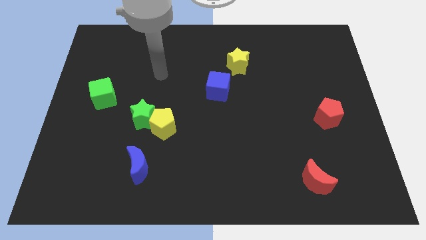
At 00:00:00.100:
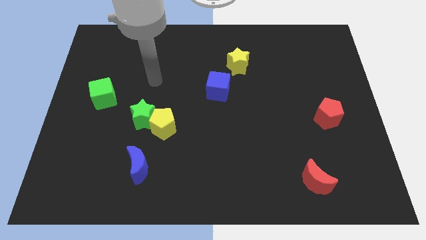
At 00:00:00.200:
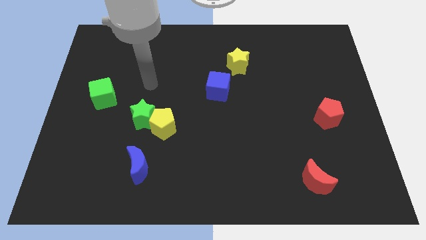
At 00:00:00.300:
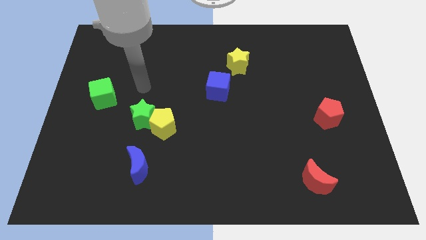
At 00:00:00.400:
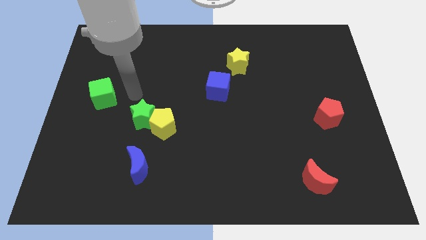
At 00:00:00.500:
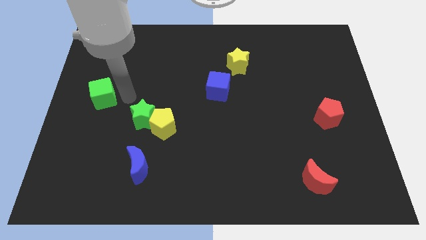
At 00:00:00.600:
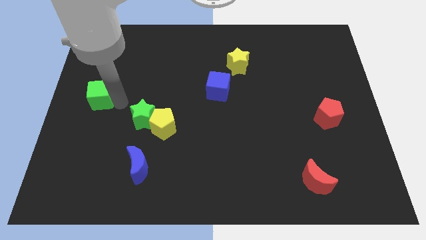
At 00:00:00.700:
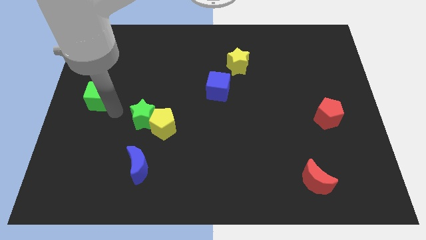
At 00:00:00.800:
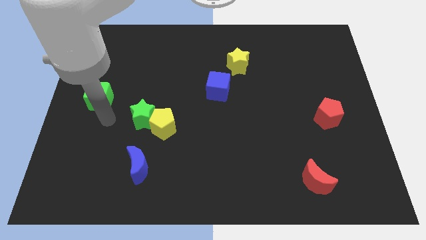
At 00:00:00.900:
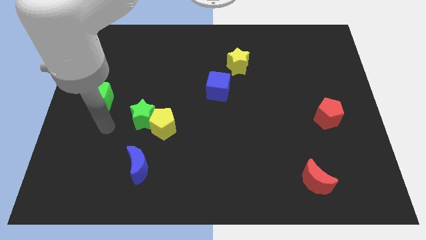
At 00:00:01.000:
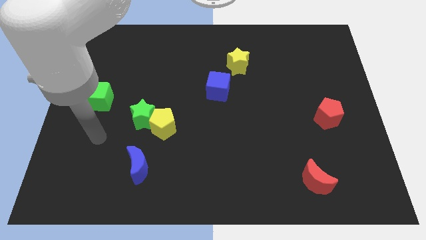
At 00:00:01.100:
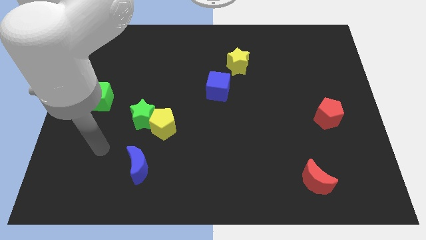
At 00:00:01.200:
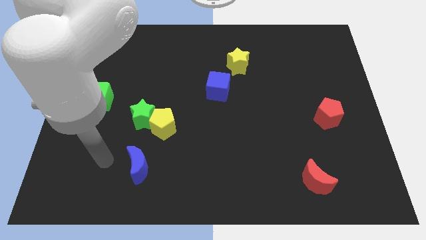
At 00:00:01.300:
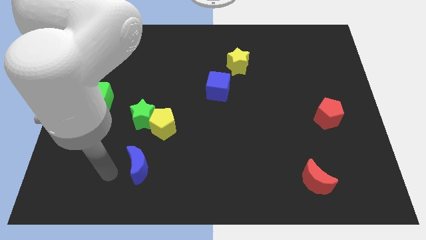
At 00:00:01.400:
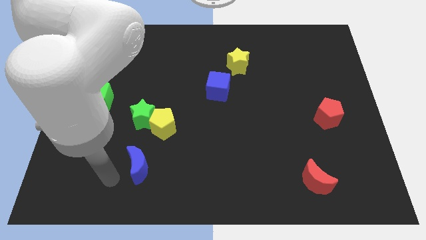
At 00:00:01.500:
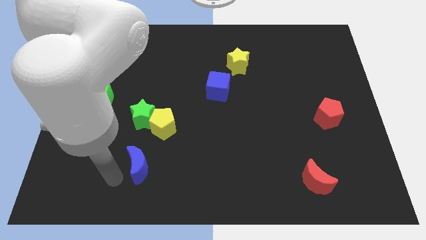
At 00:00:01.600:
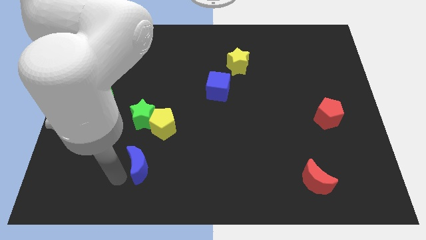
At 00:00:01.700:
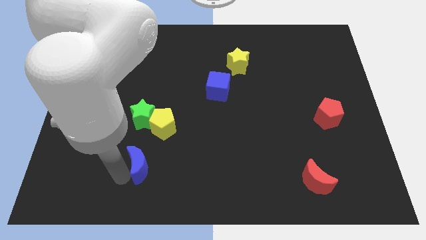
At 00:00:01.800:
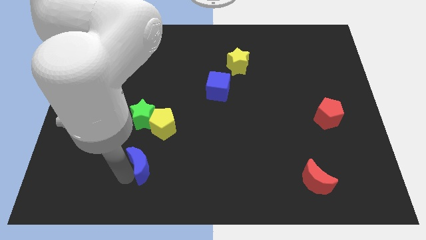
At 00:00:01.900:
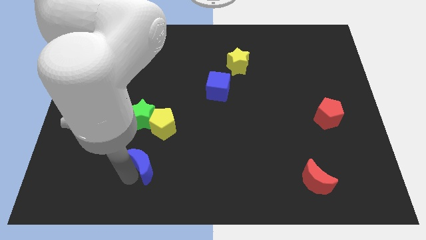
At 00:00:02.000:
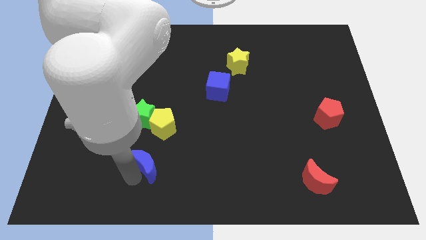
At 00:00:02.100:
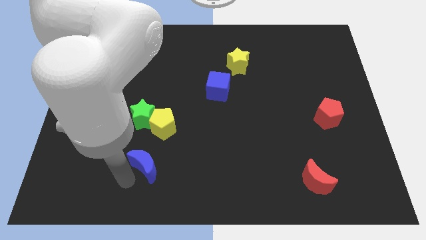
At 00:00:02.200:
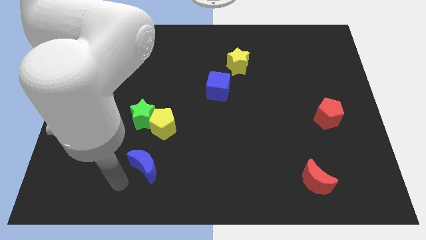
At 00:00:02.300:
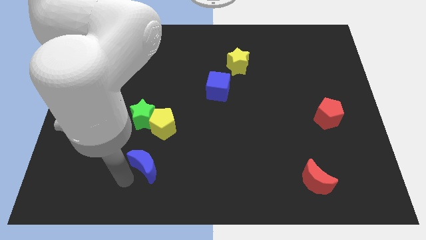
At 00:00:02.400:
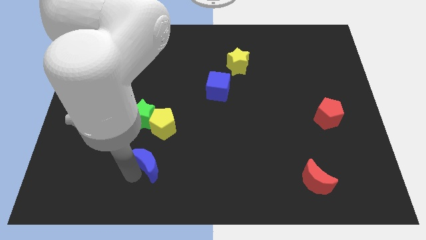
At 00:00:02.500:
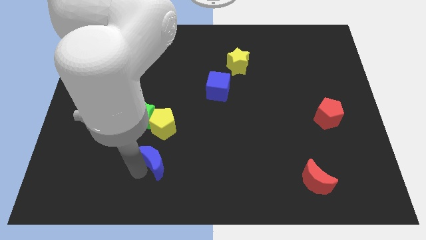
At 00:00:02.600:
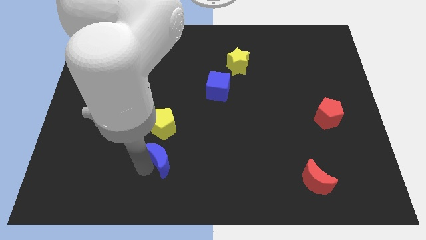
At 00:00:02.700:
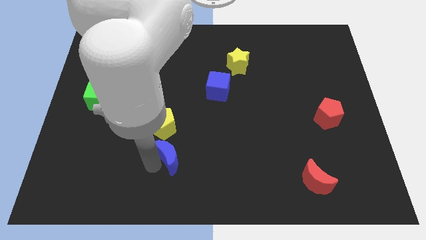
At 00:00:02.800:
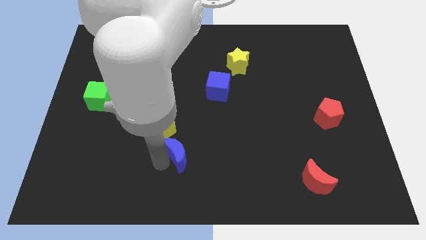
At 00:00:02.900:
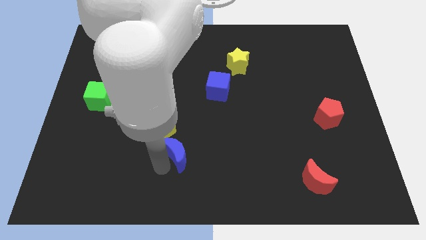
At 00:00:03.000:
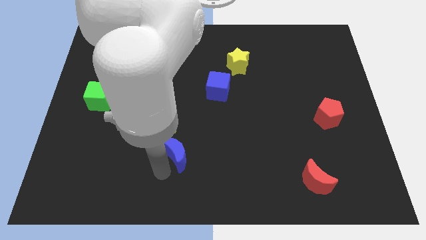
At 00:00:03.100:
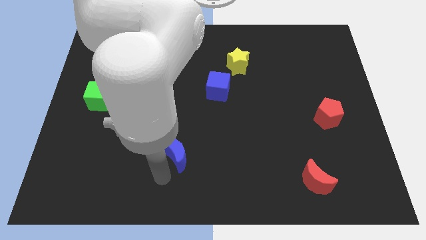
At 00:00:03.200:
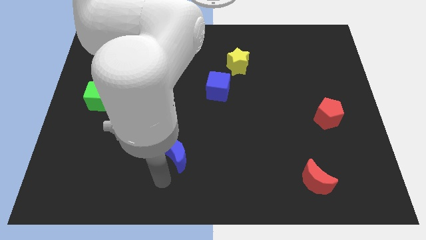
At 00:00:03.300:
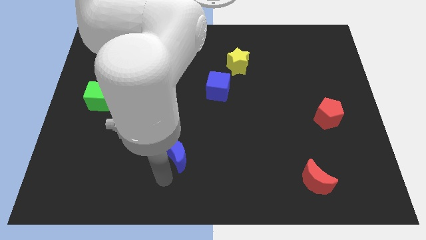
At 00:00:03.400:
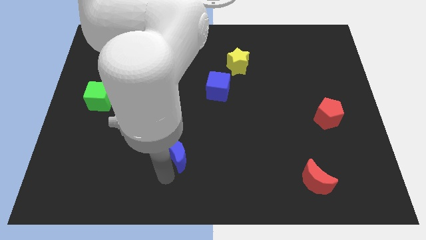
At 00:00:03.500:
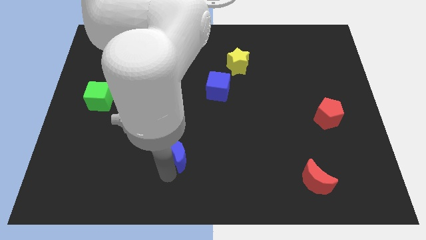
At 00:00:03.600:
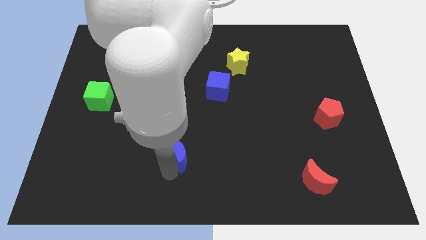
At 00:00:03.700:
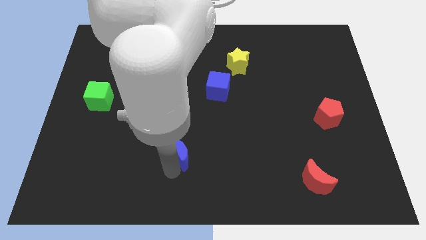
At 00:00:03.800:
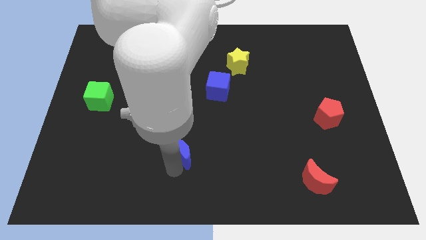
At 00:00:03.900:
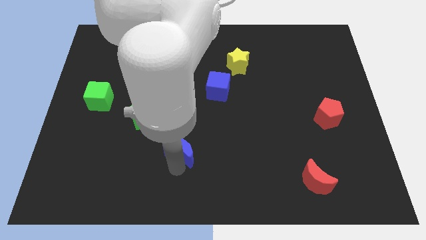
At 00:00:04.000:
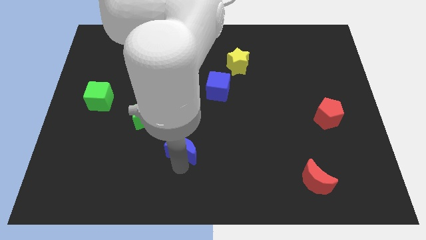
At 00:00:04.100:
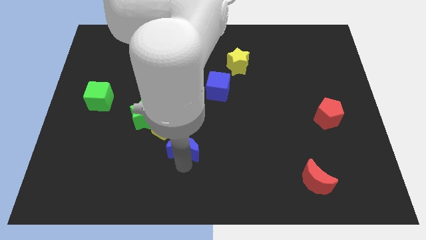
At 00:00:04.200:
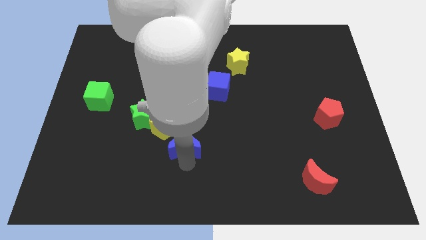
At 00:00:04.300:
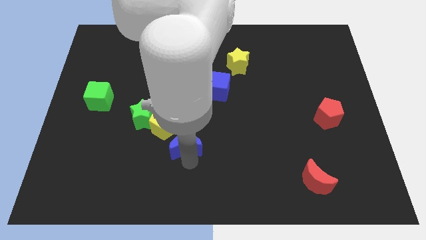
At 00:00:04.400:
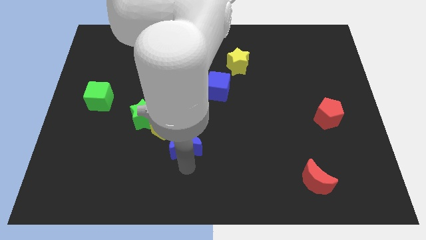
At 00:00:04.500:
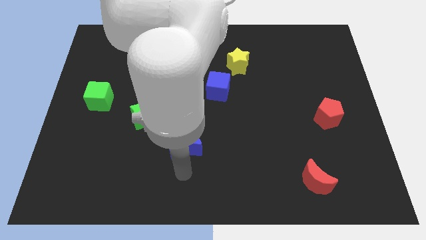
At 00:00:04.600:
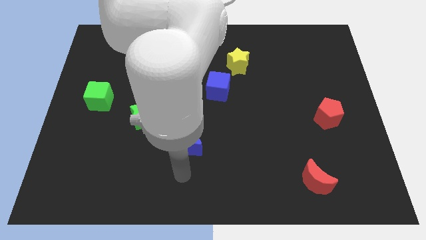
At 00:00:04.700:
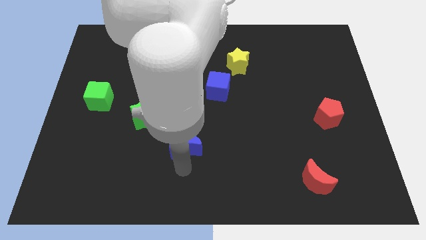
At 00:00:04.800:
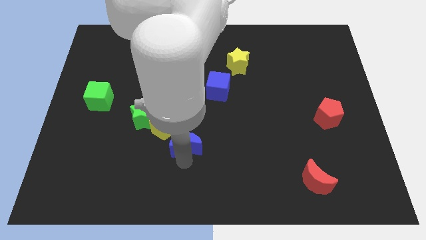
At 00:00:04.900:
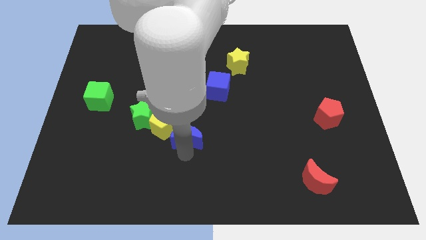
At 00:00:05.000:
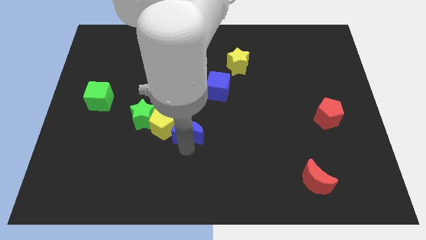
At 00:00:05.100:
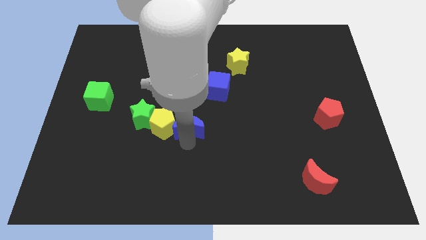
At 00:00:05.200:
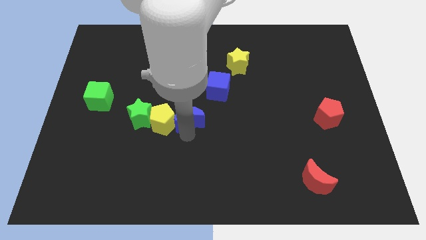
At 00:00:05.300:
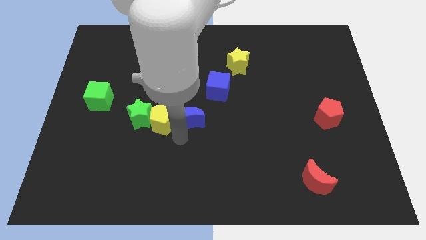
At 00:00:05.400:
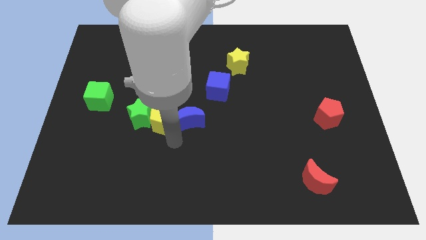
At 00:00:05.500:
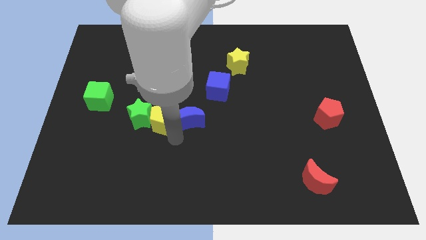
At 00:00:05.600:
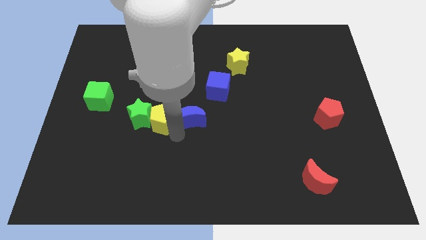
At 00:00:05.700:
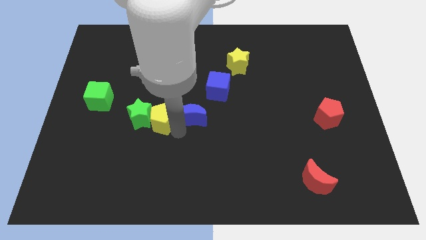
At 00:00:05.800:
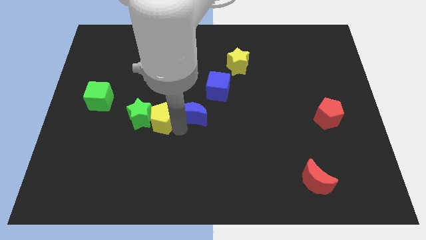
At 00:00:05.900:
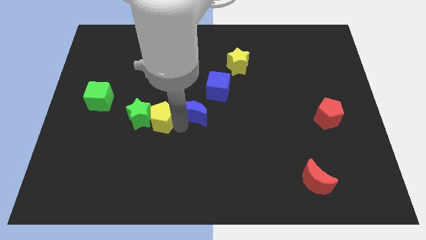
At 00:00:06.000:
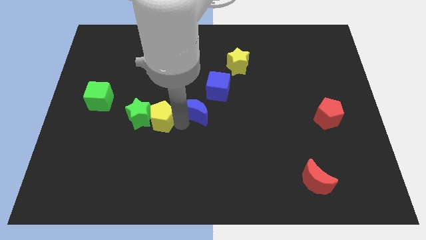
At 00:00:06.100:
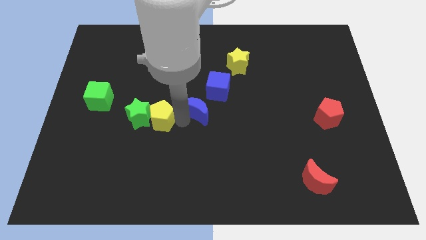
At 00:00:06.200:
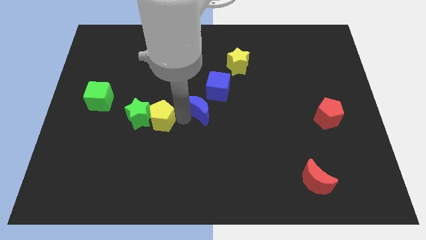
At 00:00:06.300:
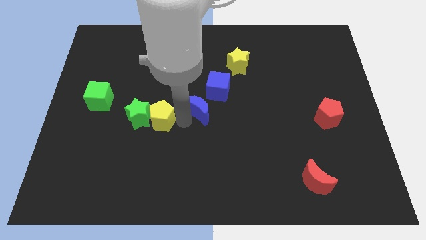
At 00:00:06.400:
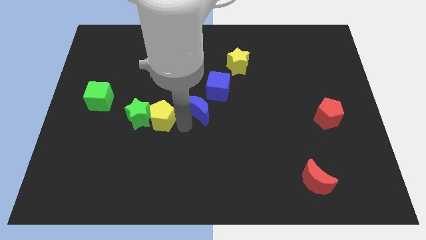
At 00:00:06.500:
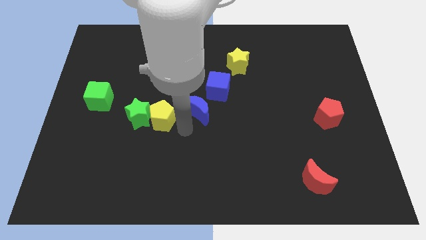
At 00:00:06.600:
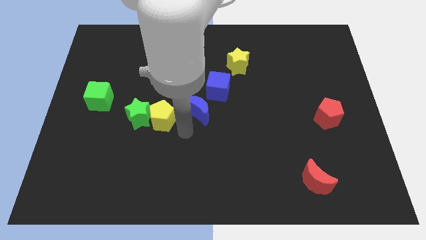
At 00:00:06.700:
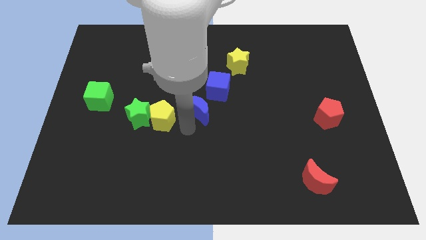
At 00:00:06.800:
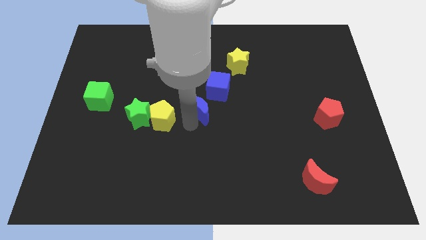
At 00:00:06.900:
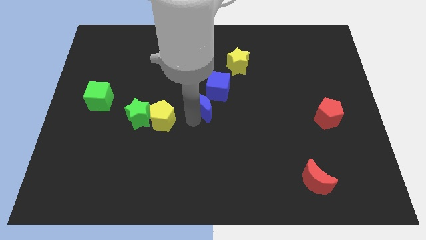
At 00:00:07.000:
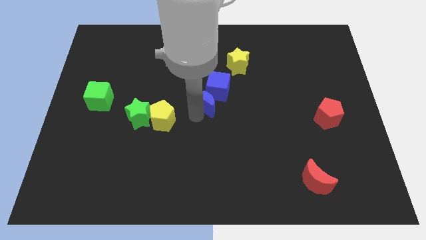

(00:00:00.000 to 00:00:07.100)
move the blue moon towards the blue cube
